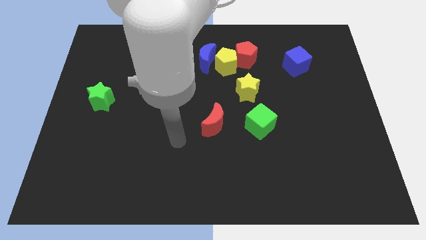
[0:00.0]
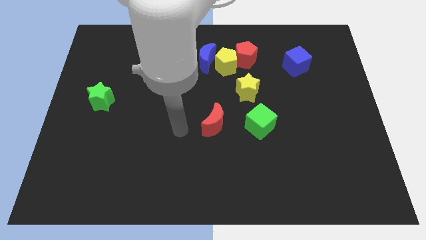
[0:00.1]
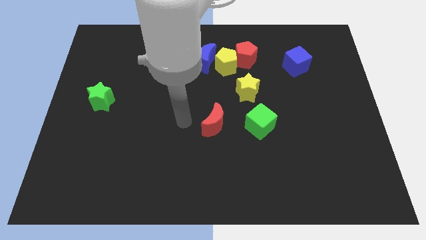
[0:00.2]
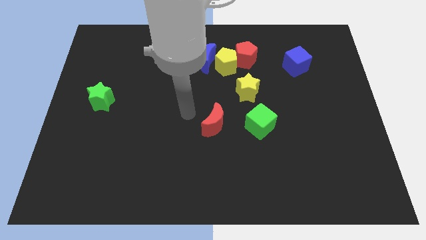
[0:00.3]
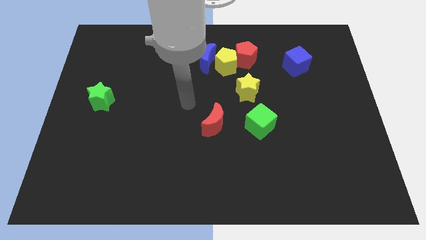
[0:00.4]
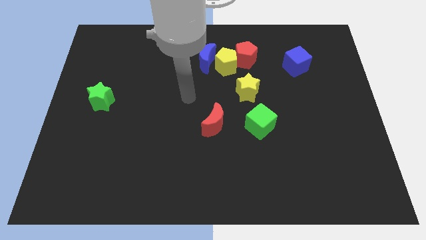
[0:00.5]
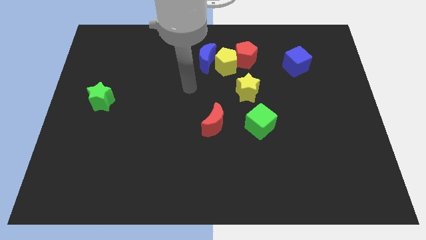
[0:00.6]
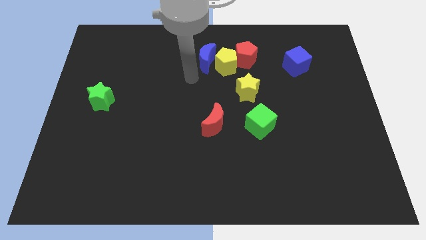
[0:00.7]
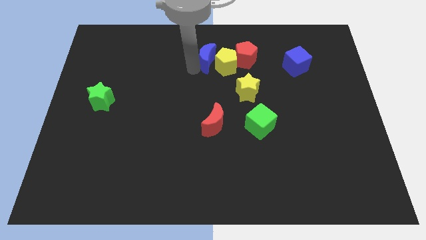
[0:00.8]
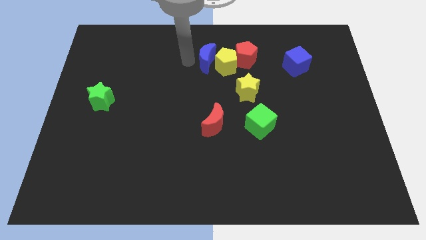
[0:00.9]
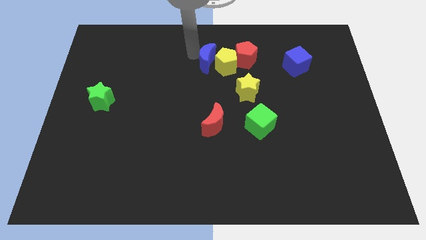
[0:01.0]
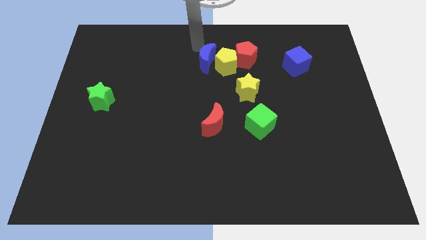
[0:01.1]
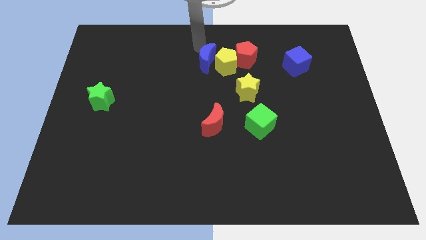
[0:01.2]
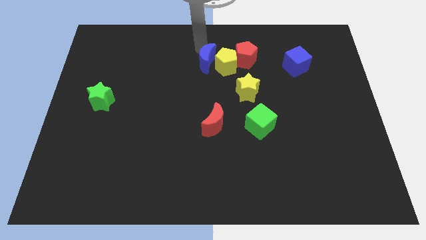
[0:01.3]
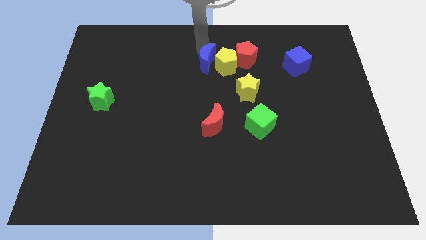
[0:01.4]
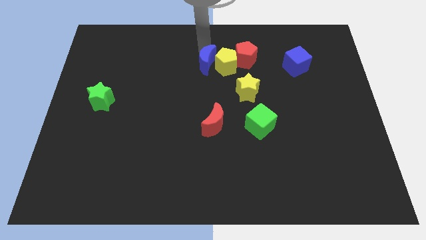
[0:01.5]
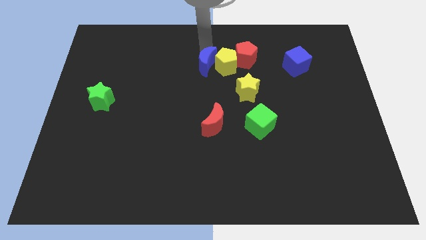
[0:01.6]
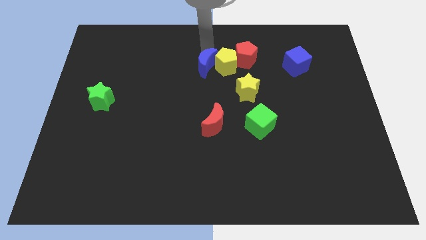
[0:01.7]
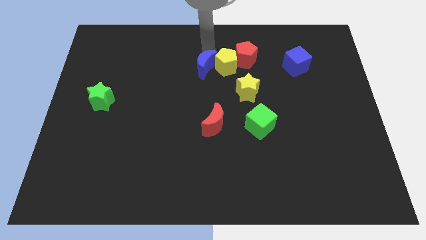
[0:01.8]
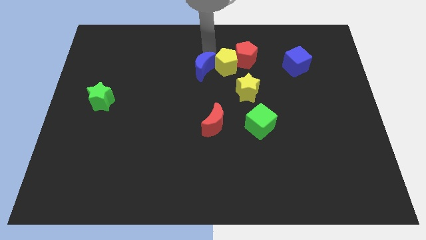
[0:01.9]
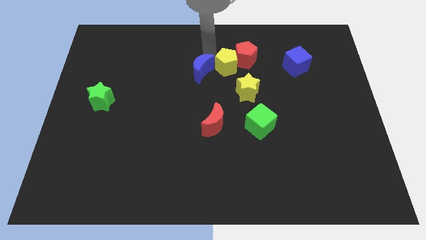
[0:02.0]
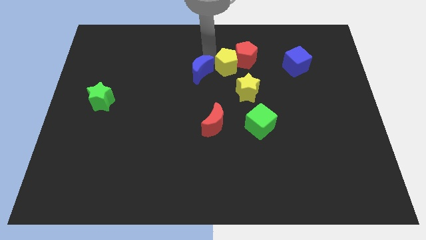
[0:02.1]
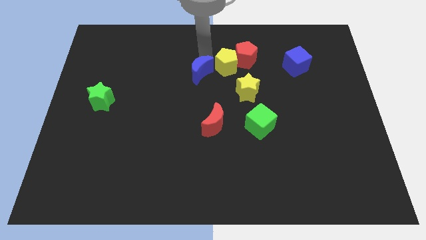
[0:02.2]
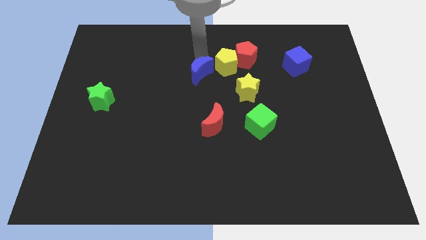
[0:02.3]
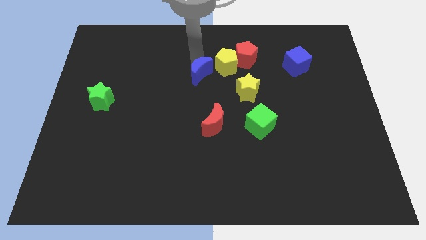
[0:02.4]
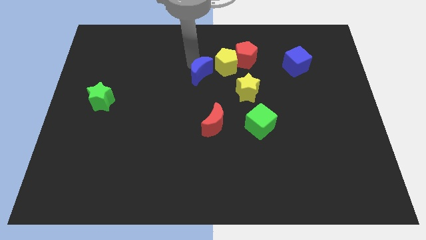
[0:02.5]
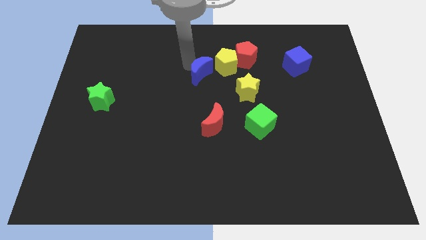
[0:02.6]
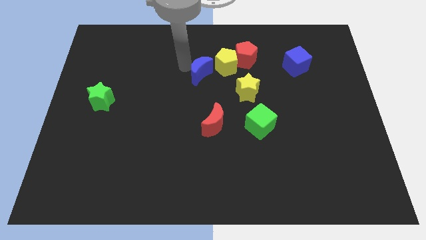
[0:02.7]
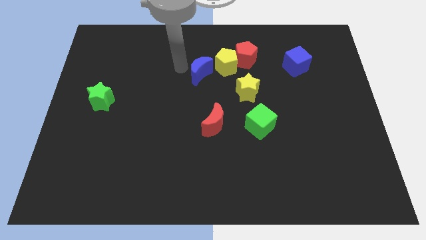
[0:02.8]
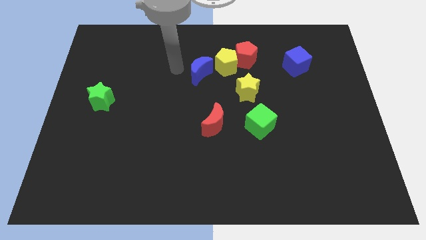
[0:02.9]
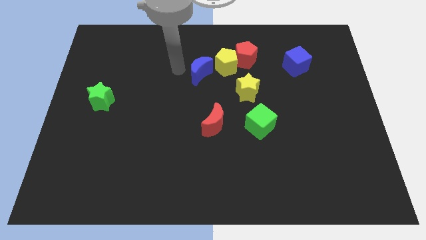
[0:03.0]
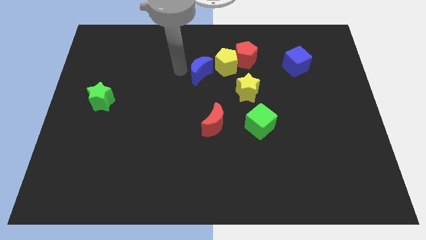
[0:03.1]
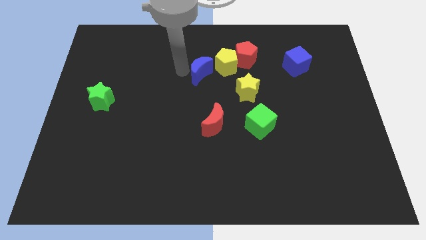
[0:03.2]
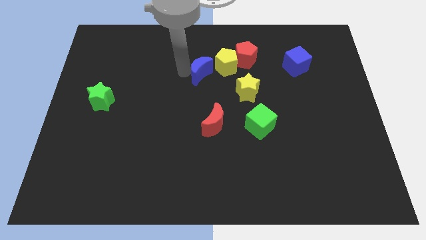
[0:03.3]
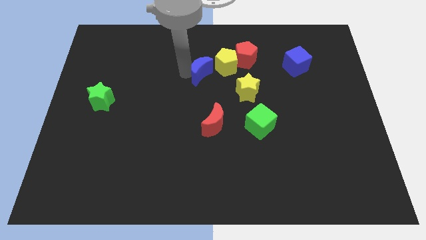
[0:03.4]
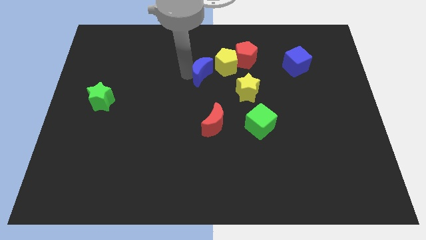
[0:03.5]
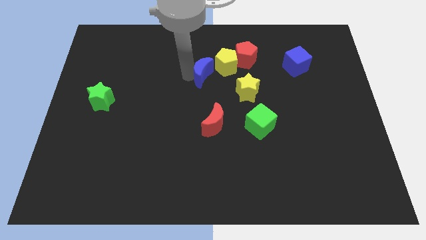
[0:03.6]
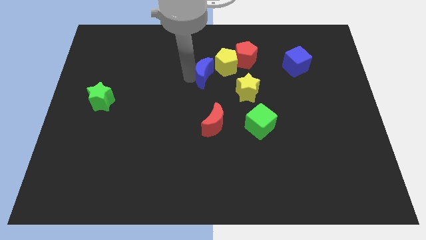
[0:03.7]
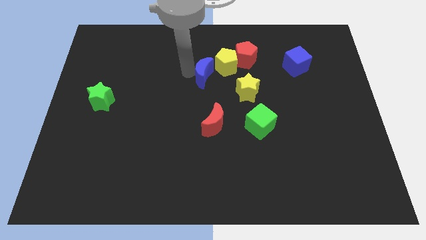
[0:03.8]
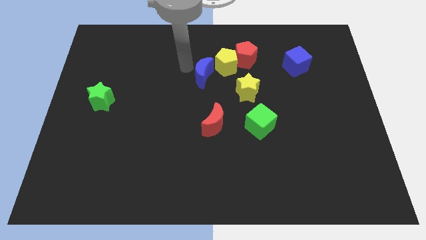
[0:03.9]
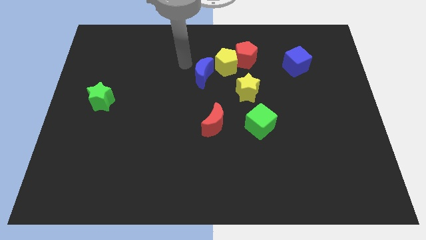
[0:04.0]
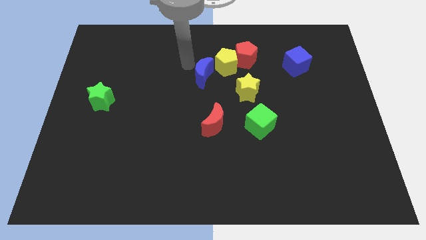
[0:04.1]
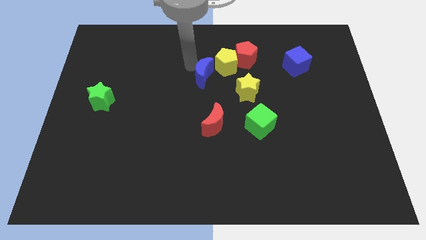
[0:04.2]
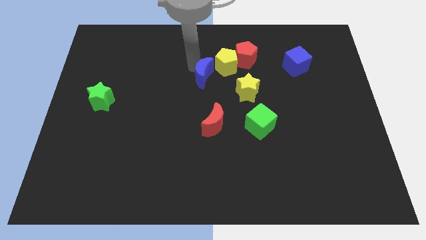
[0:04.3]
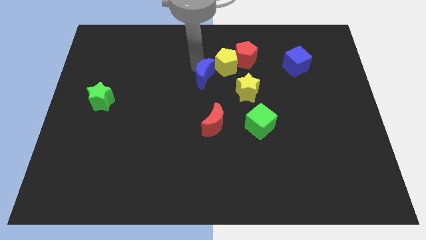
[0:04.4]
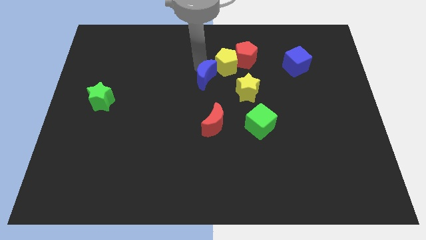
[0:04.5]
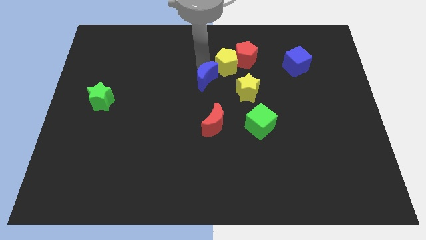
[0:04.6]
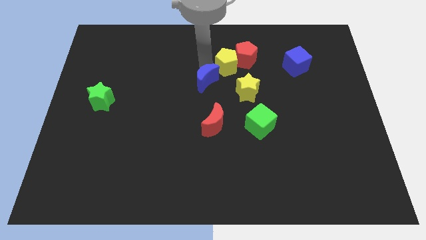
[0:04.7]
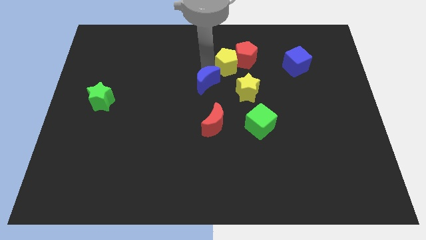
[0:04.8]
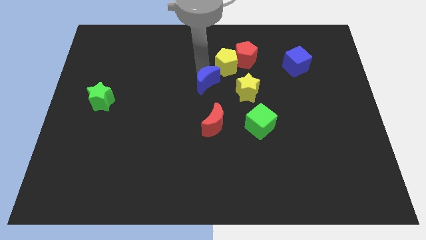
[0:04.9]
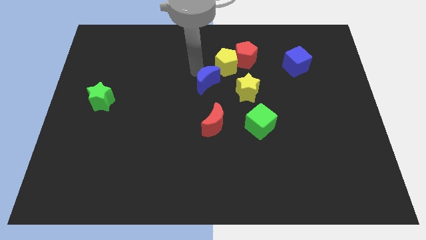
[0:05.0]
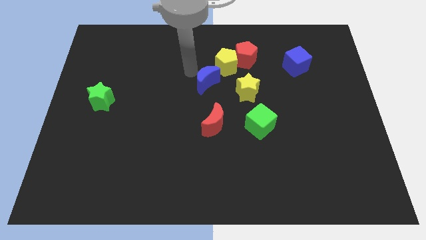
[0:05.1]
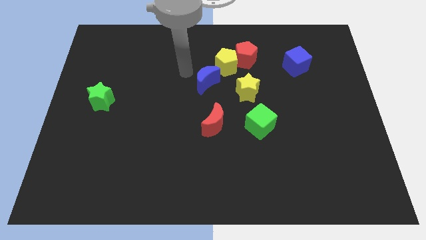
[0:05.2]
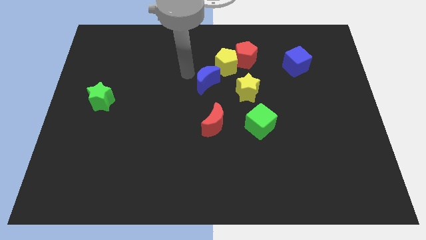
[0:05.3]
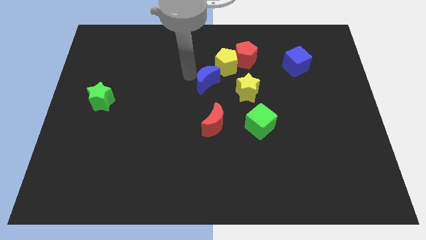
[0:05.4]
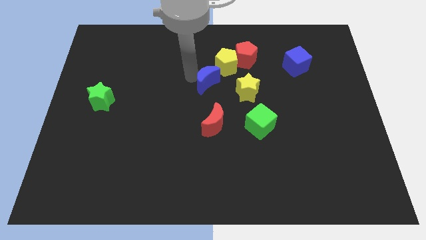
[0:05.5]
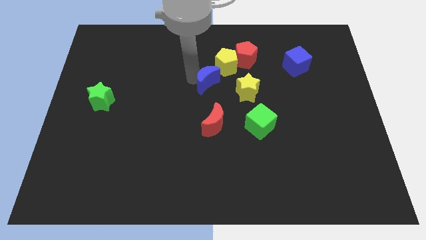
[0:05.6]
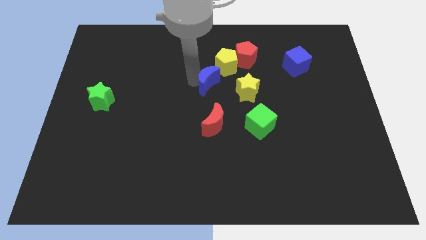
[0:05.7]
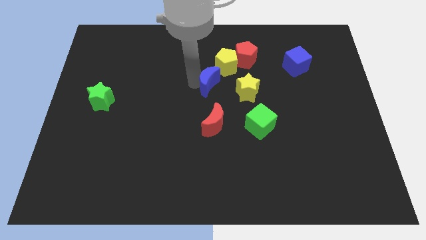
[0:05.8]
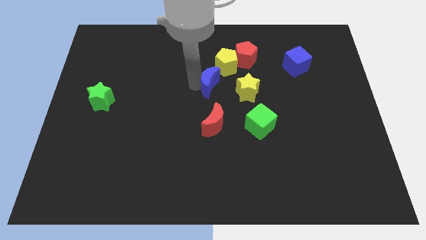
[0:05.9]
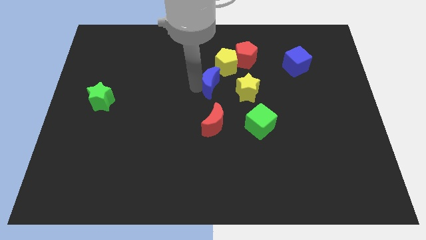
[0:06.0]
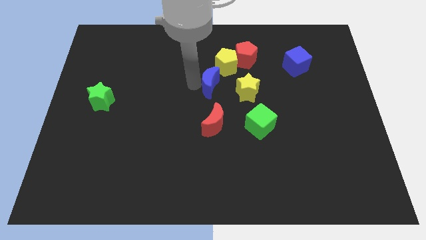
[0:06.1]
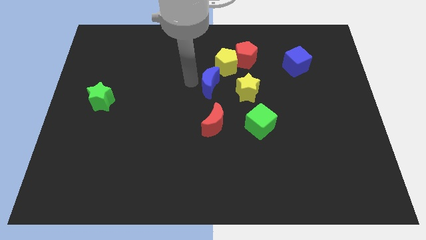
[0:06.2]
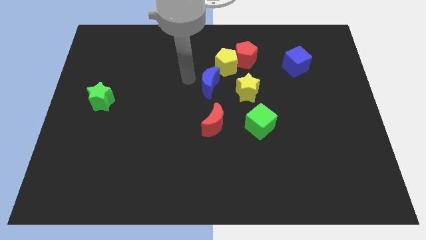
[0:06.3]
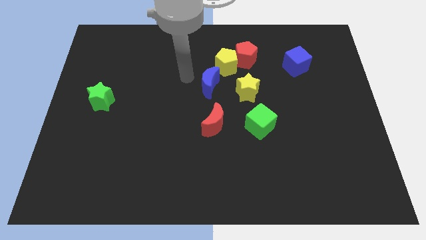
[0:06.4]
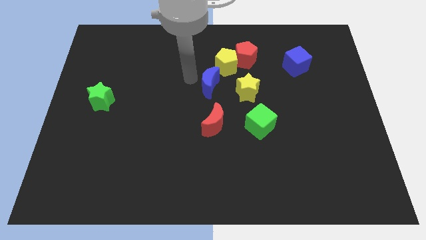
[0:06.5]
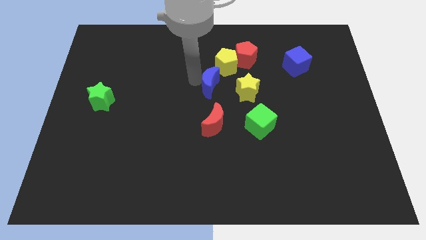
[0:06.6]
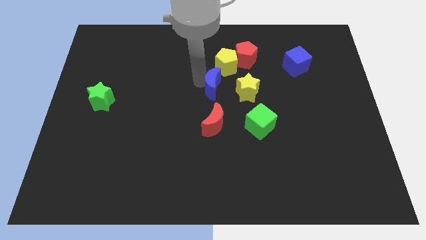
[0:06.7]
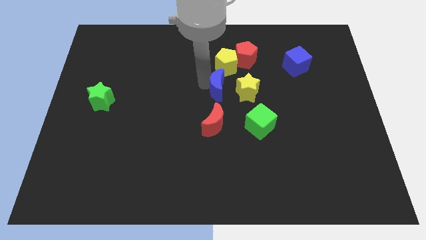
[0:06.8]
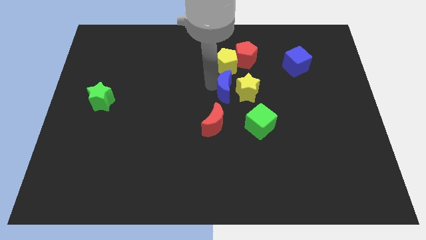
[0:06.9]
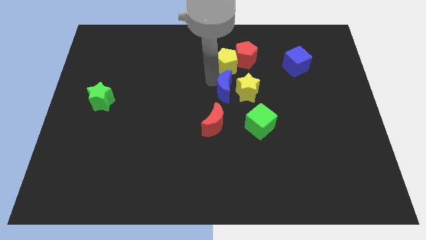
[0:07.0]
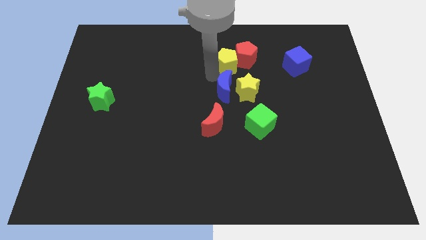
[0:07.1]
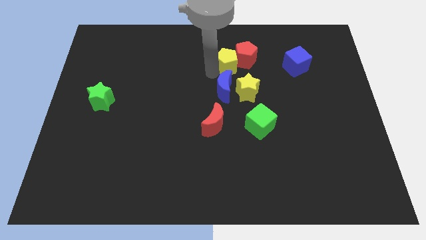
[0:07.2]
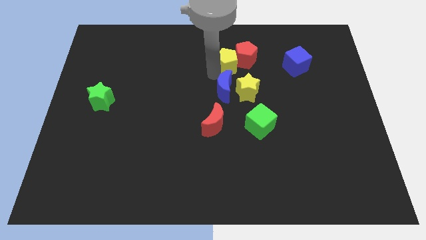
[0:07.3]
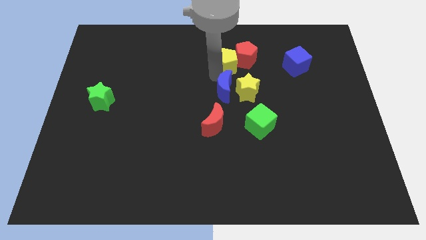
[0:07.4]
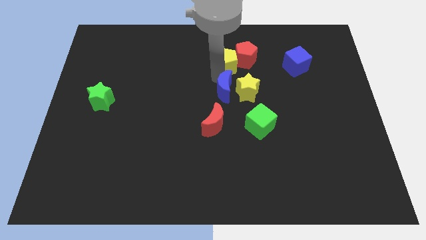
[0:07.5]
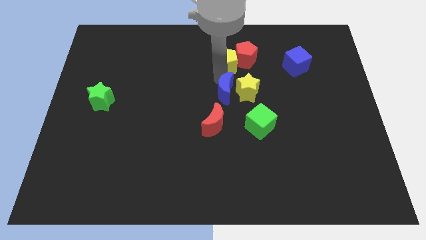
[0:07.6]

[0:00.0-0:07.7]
push the blue moon diagonally up and to the left of the green cube
